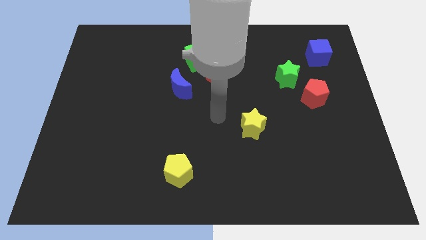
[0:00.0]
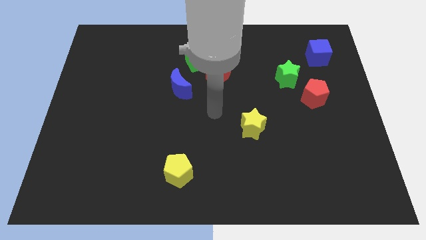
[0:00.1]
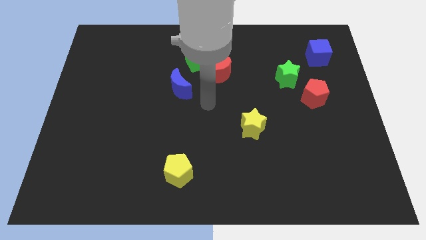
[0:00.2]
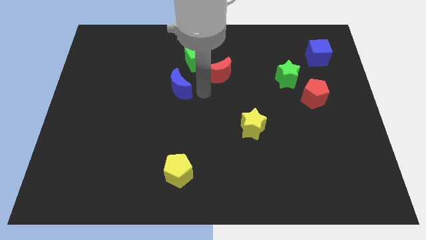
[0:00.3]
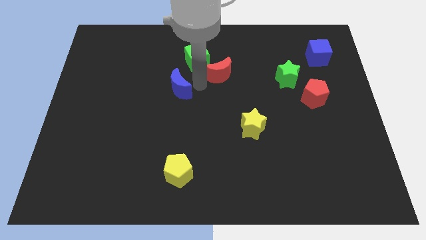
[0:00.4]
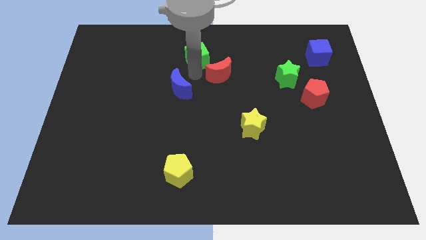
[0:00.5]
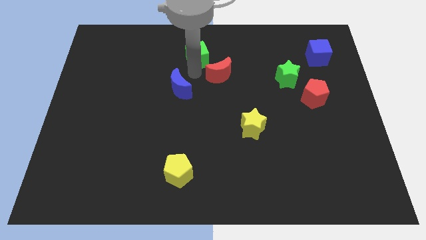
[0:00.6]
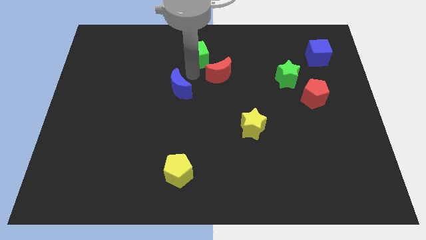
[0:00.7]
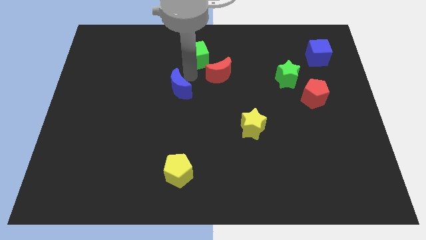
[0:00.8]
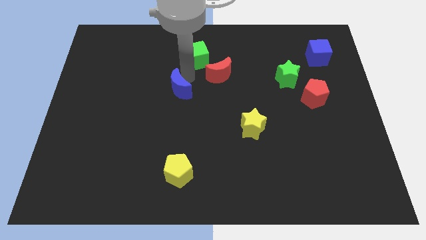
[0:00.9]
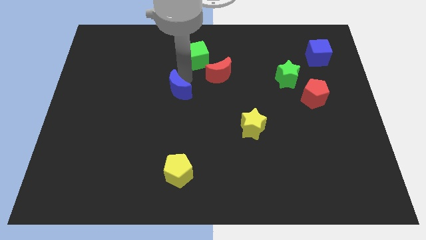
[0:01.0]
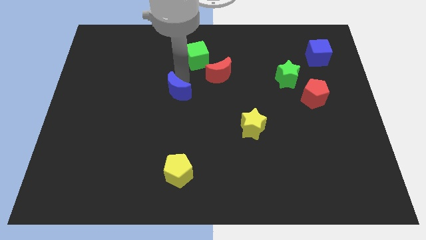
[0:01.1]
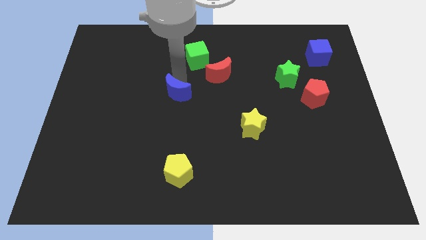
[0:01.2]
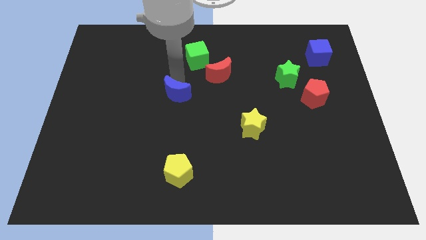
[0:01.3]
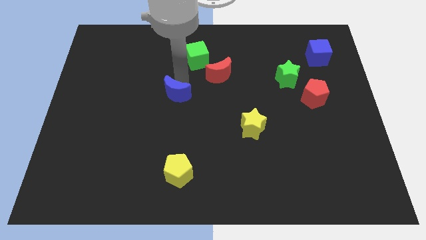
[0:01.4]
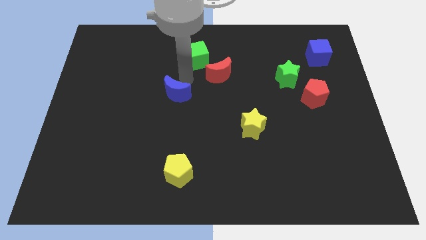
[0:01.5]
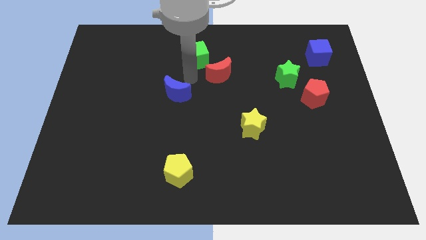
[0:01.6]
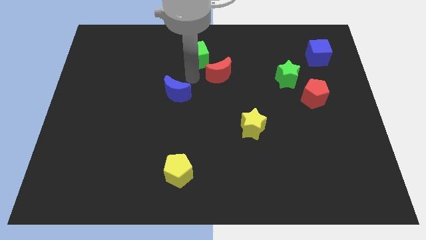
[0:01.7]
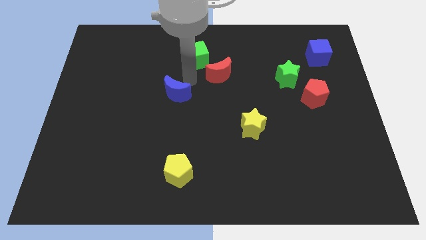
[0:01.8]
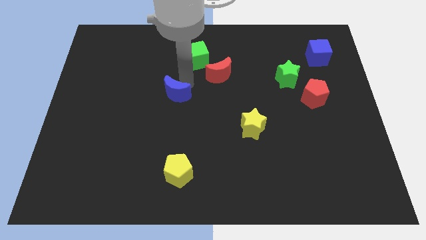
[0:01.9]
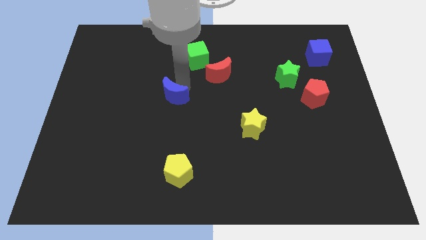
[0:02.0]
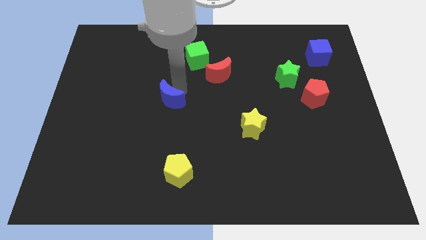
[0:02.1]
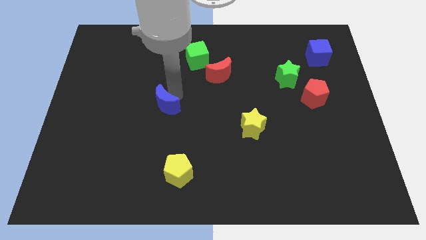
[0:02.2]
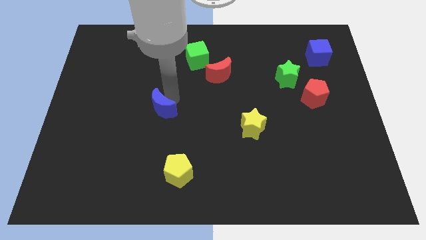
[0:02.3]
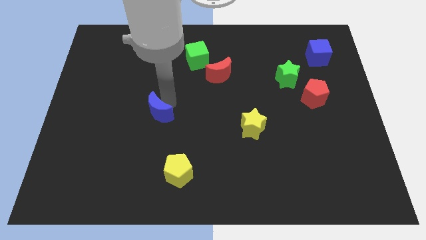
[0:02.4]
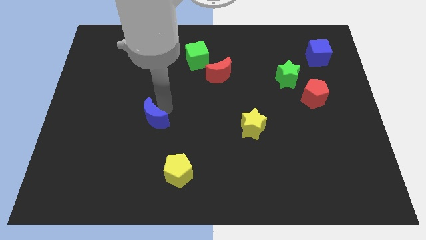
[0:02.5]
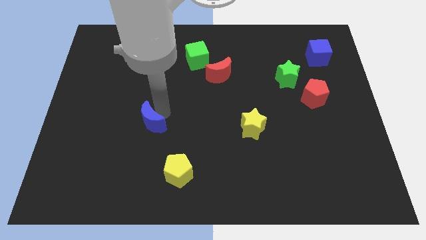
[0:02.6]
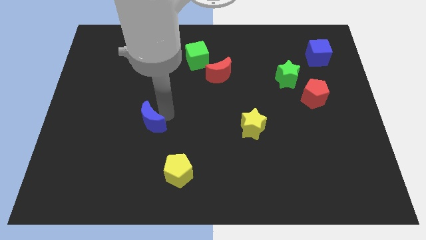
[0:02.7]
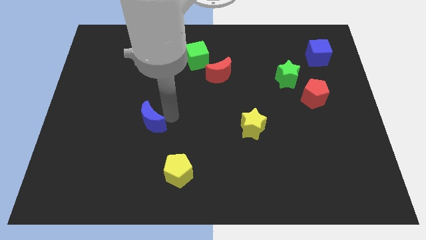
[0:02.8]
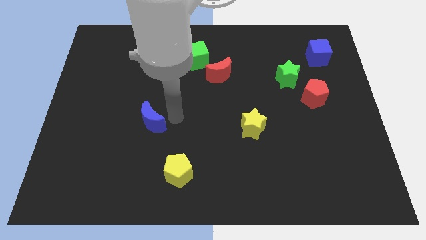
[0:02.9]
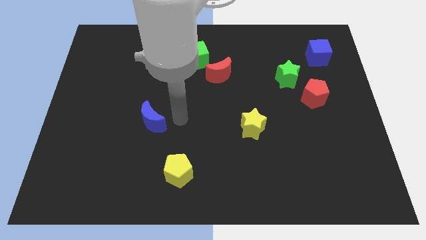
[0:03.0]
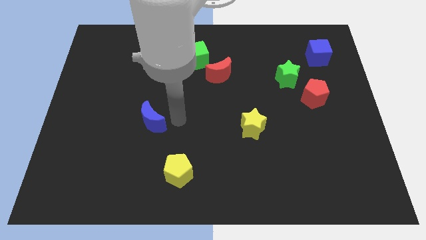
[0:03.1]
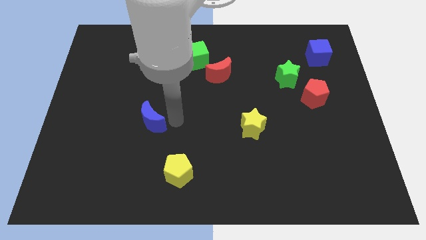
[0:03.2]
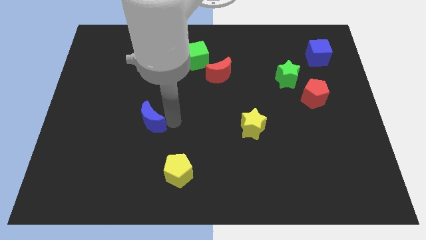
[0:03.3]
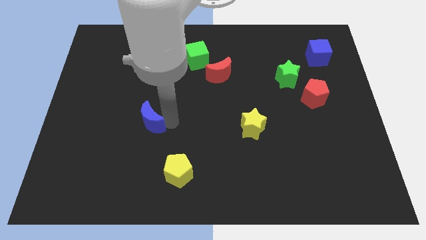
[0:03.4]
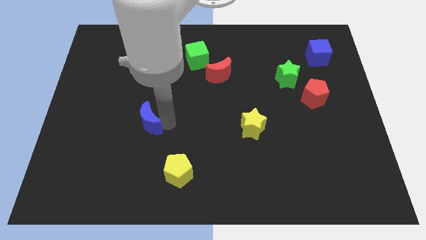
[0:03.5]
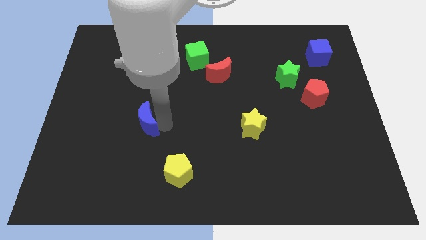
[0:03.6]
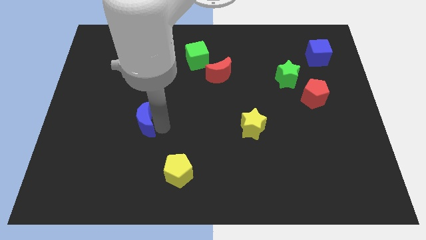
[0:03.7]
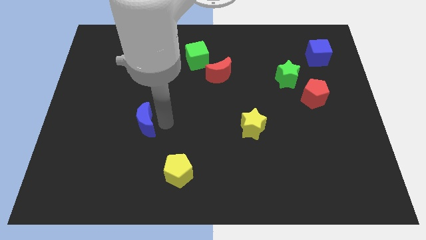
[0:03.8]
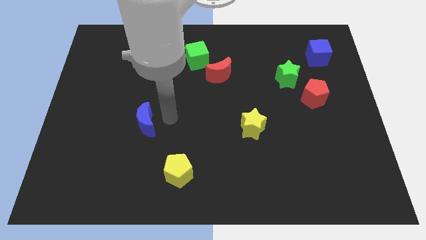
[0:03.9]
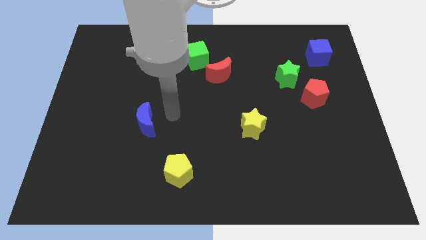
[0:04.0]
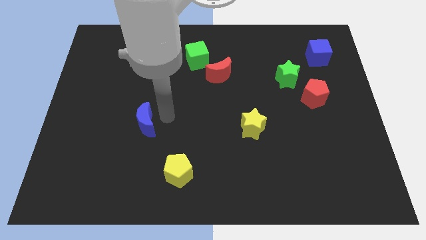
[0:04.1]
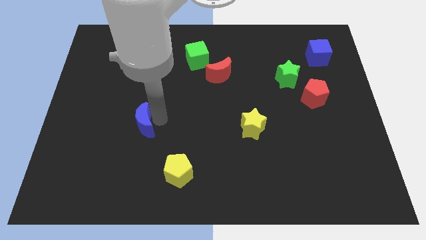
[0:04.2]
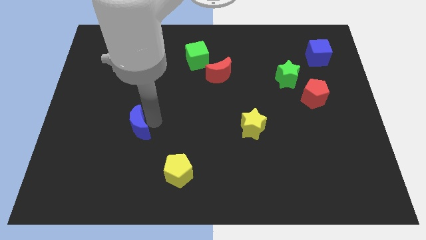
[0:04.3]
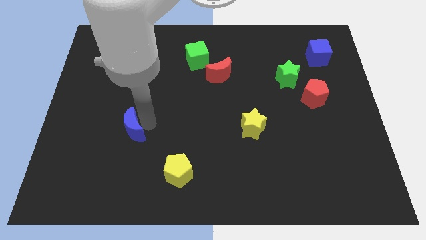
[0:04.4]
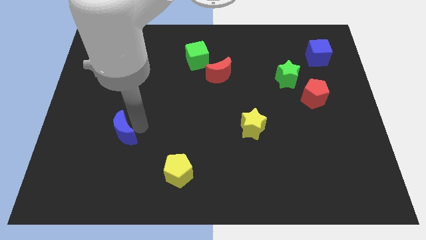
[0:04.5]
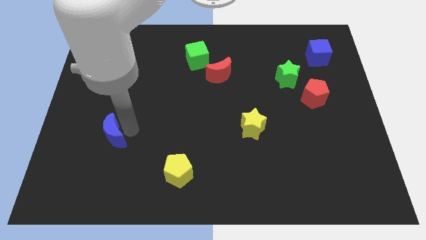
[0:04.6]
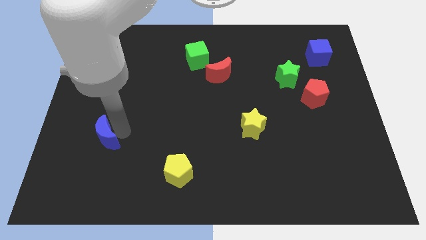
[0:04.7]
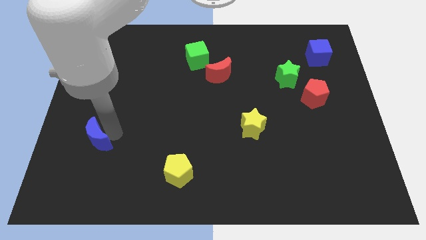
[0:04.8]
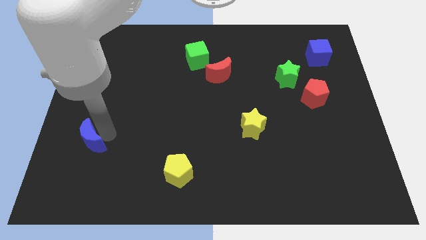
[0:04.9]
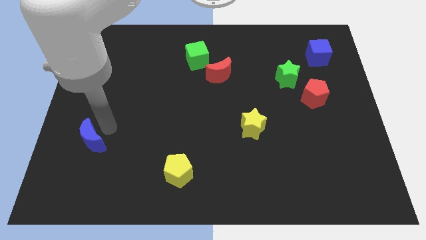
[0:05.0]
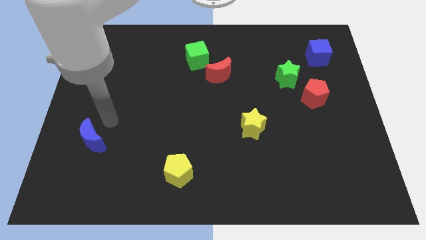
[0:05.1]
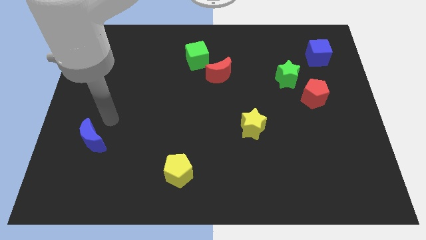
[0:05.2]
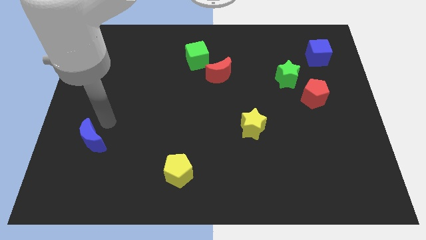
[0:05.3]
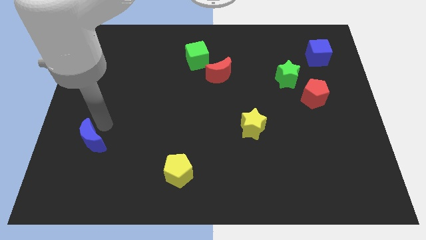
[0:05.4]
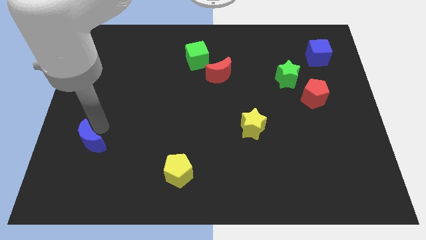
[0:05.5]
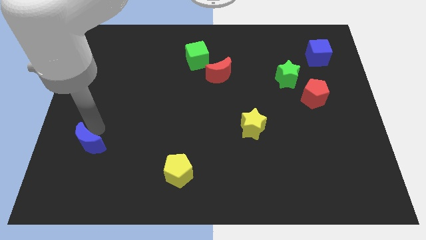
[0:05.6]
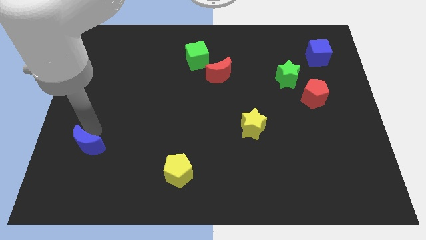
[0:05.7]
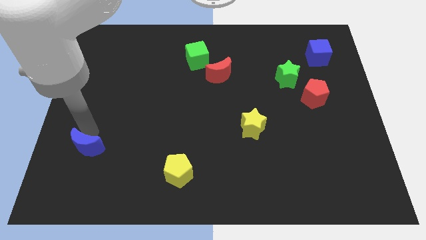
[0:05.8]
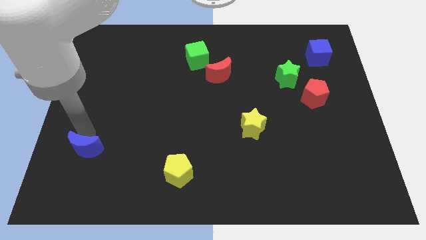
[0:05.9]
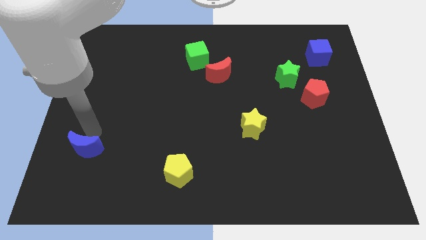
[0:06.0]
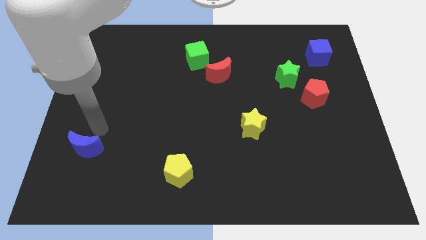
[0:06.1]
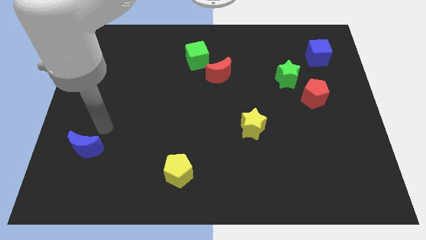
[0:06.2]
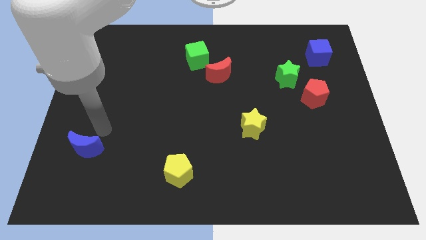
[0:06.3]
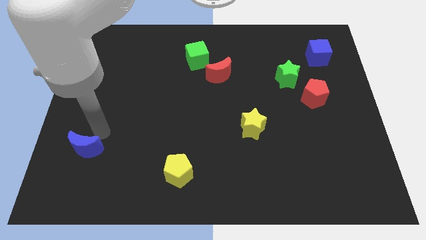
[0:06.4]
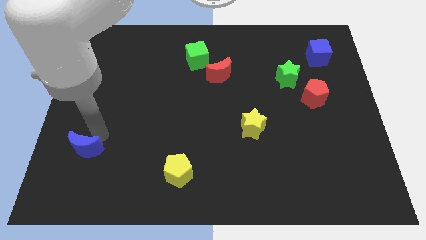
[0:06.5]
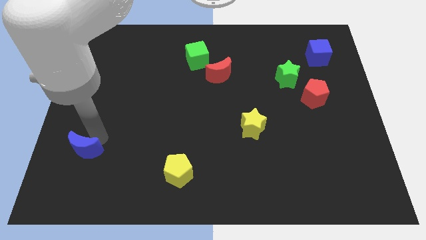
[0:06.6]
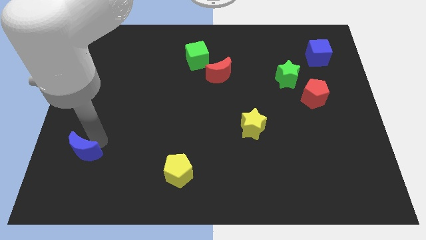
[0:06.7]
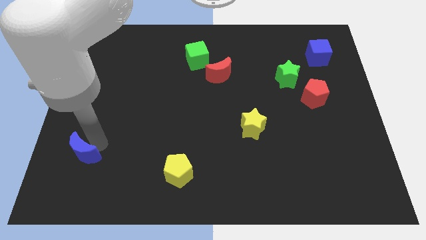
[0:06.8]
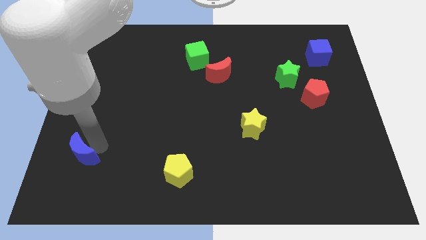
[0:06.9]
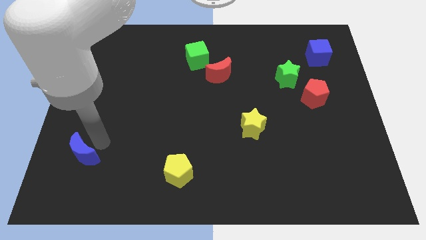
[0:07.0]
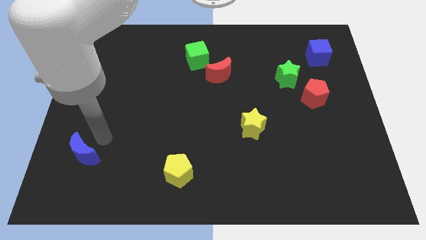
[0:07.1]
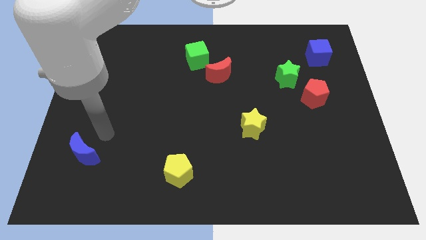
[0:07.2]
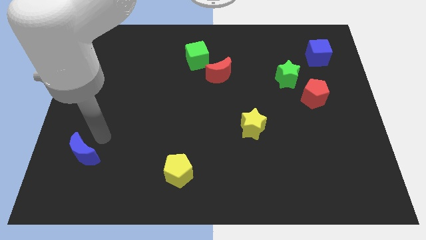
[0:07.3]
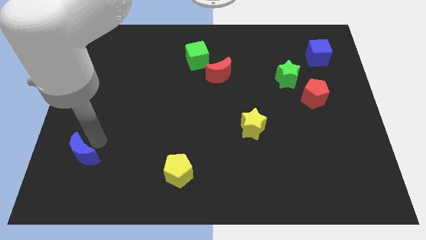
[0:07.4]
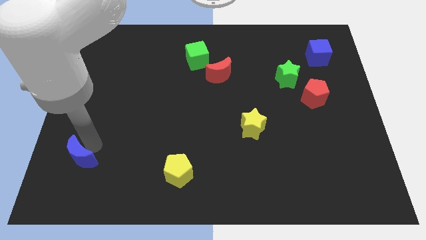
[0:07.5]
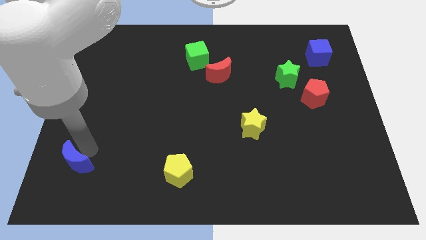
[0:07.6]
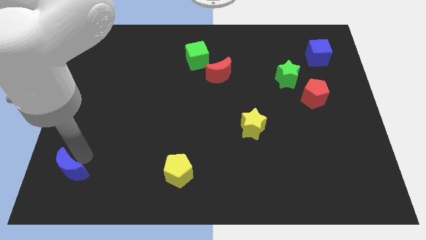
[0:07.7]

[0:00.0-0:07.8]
put the blue moon to the bottom left
